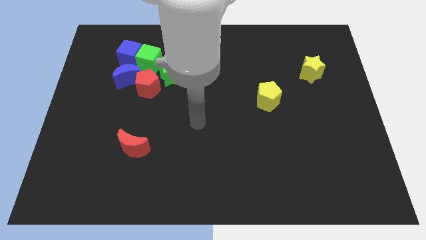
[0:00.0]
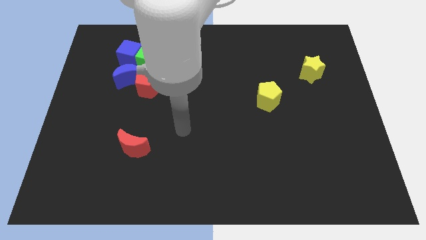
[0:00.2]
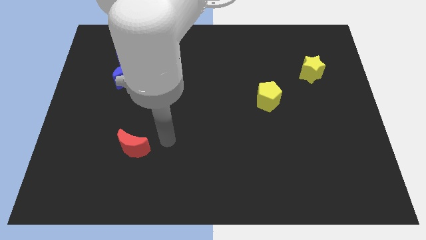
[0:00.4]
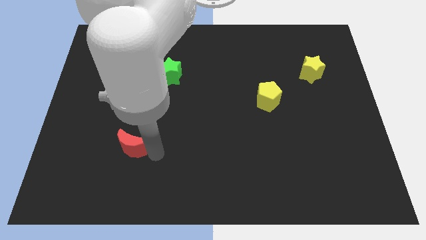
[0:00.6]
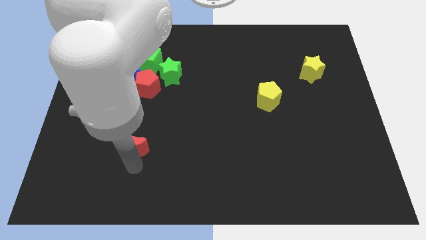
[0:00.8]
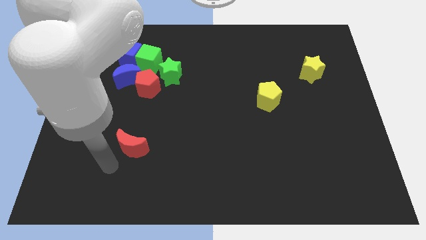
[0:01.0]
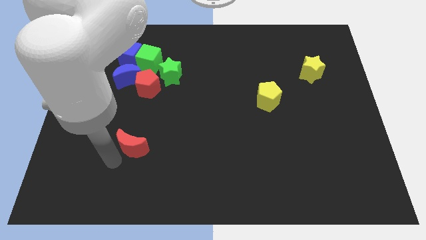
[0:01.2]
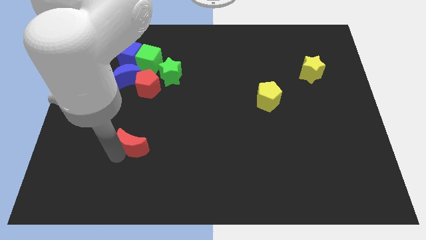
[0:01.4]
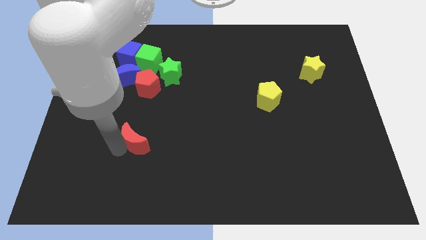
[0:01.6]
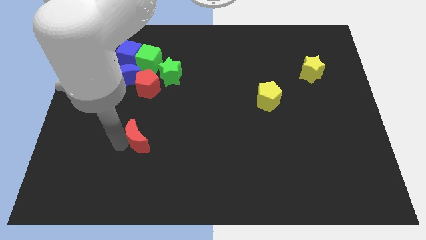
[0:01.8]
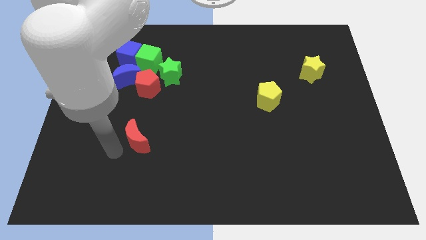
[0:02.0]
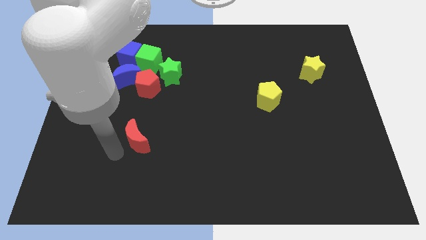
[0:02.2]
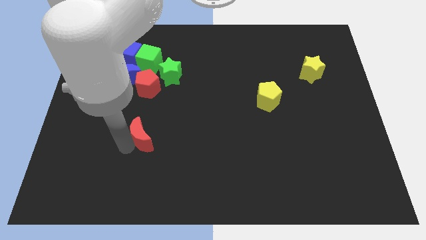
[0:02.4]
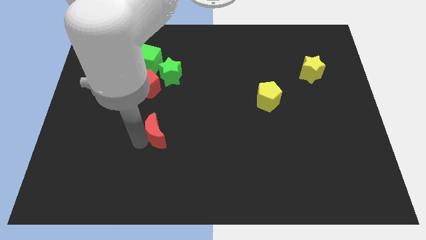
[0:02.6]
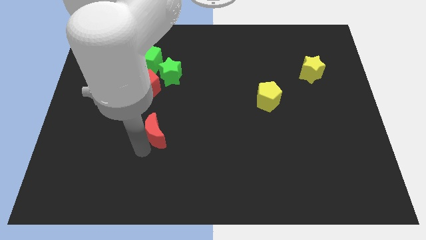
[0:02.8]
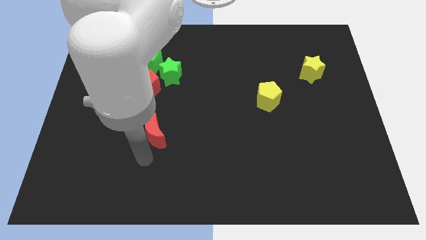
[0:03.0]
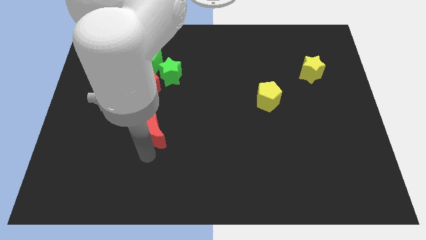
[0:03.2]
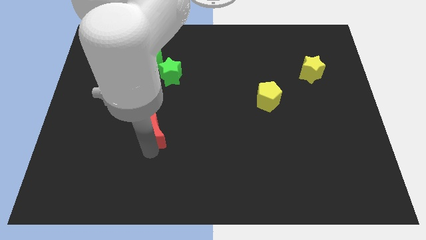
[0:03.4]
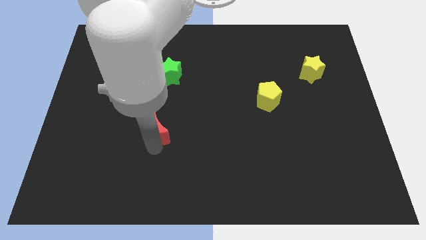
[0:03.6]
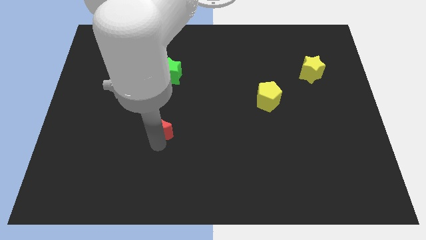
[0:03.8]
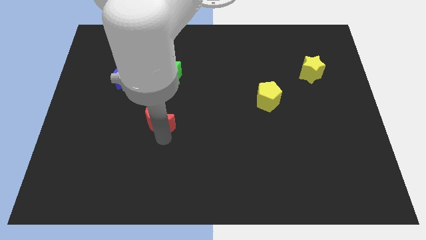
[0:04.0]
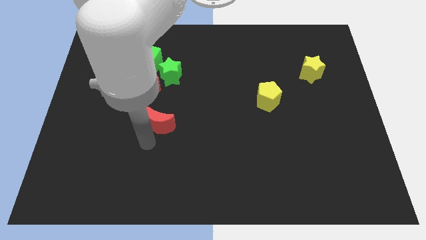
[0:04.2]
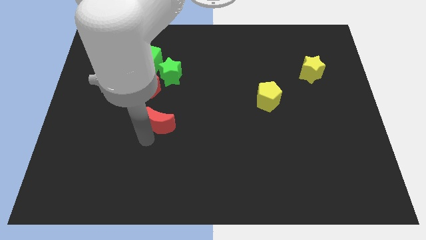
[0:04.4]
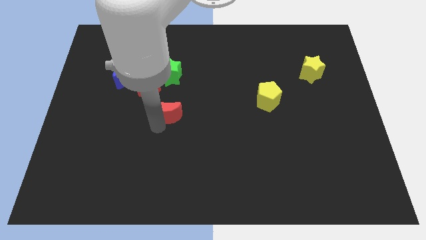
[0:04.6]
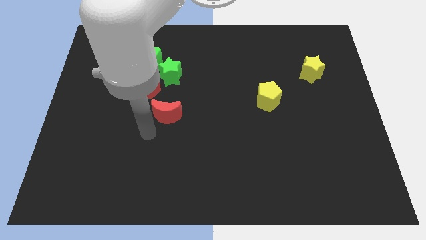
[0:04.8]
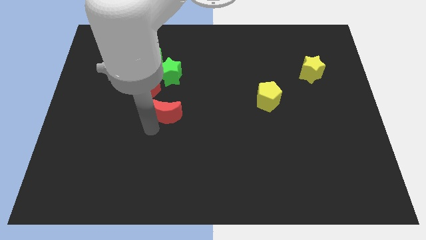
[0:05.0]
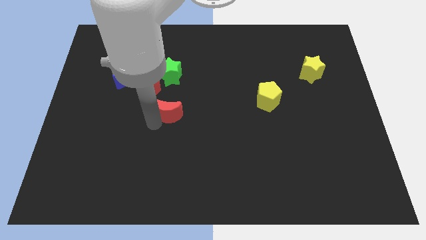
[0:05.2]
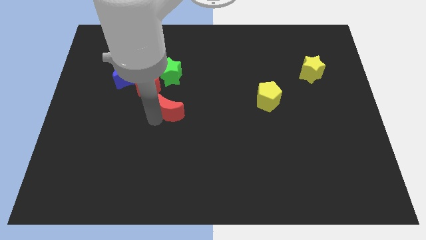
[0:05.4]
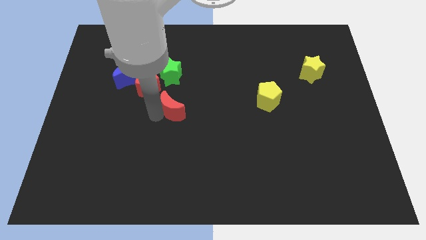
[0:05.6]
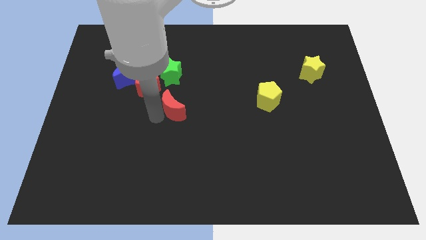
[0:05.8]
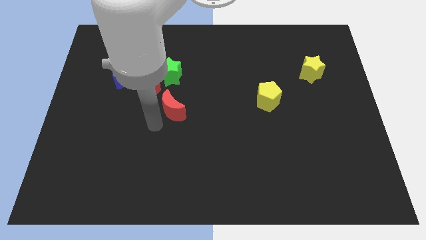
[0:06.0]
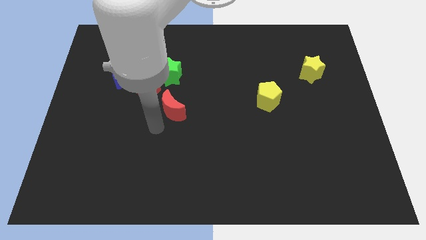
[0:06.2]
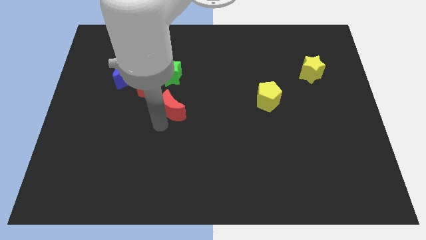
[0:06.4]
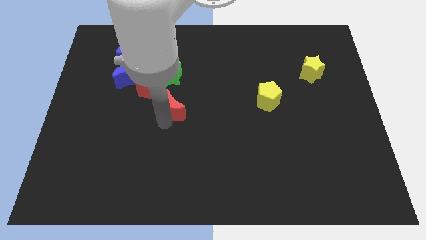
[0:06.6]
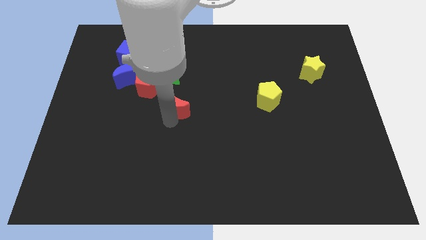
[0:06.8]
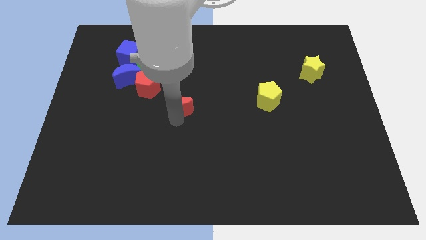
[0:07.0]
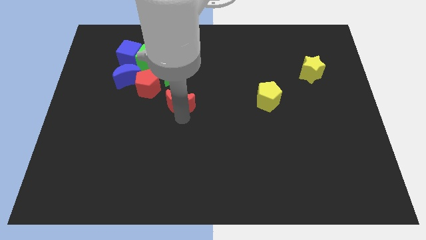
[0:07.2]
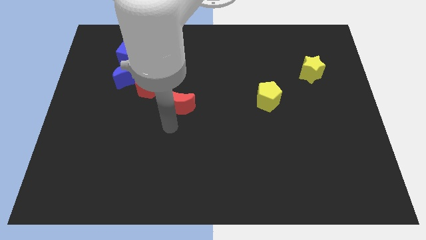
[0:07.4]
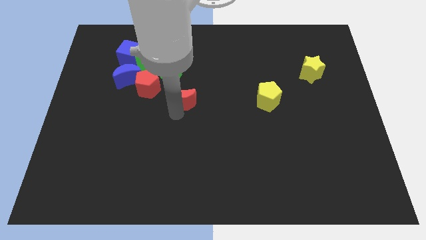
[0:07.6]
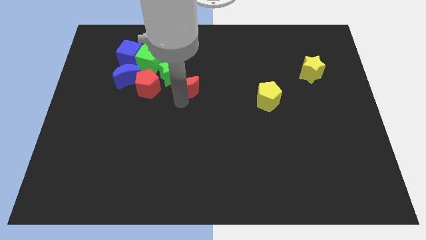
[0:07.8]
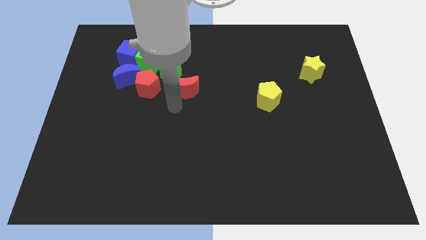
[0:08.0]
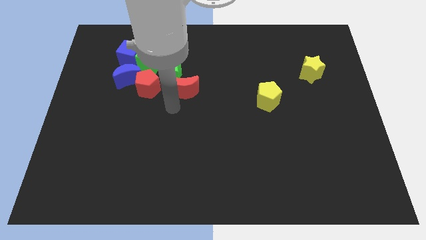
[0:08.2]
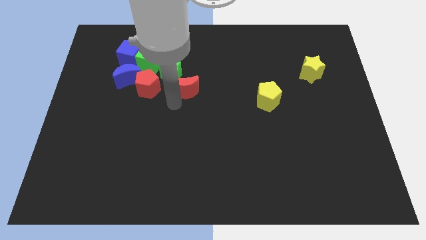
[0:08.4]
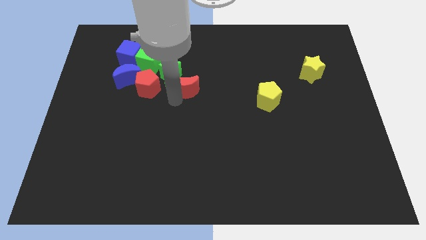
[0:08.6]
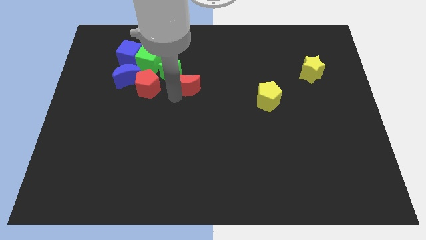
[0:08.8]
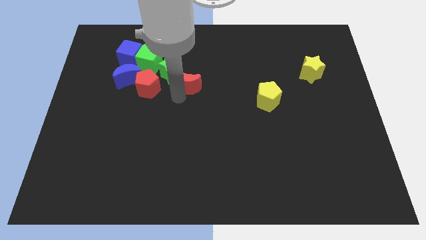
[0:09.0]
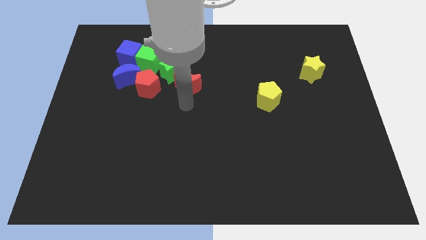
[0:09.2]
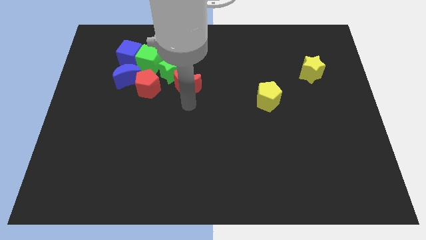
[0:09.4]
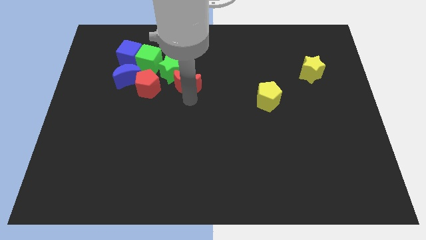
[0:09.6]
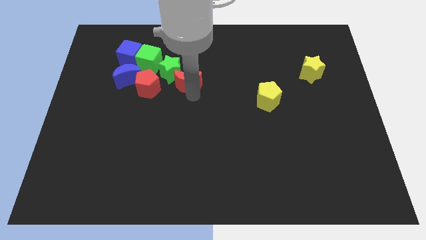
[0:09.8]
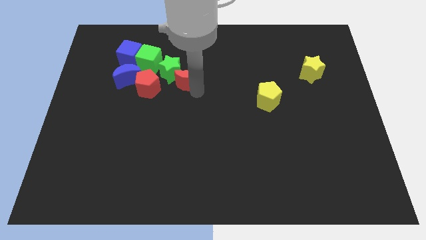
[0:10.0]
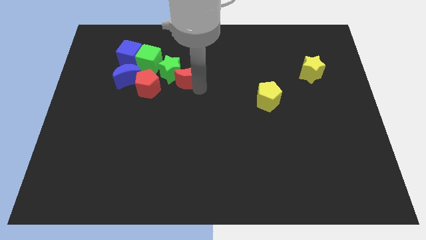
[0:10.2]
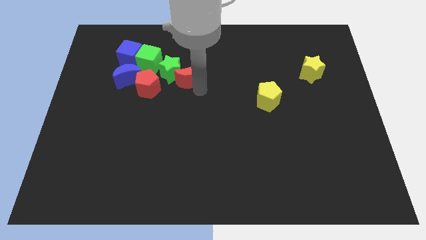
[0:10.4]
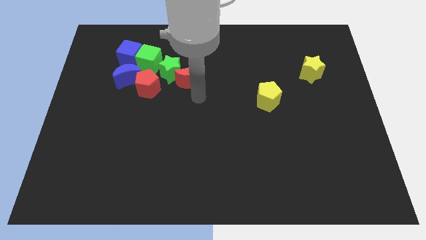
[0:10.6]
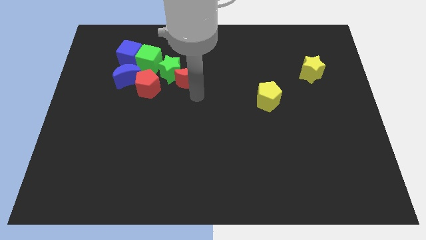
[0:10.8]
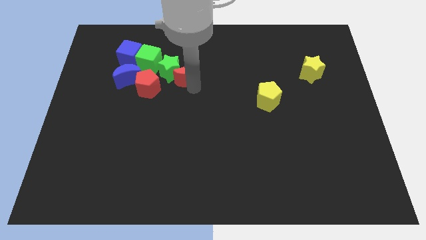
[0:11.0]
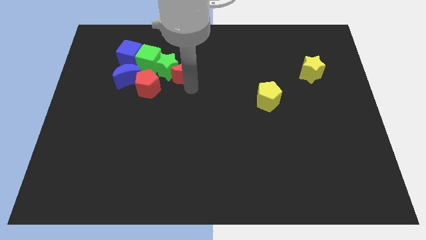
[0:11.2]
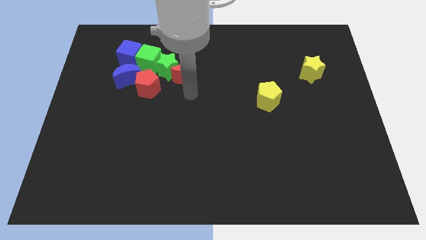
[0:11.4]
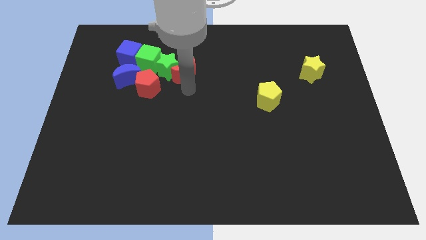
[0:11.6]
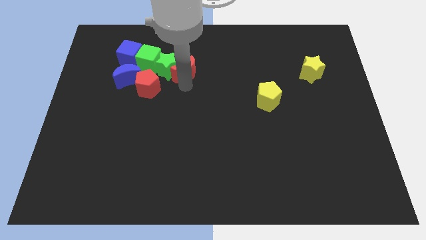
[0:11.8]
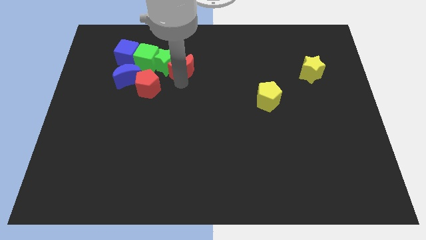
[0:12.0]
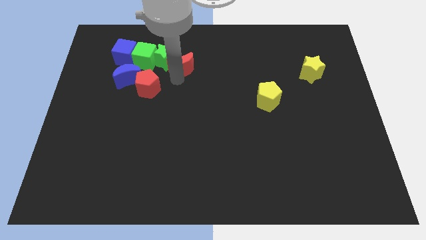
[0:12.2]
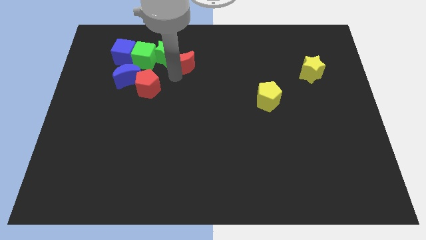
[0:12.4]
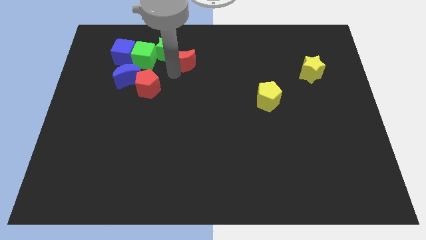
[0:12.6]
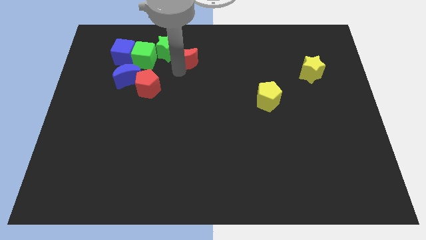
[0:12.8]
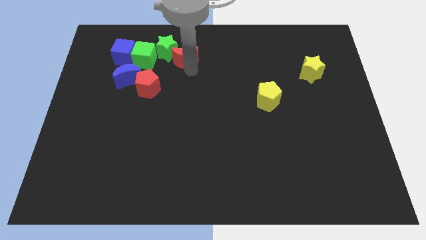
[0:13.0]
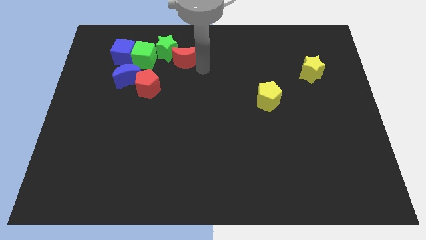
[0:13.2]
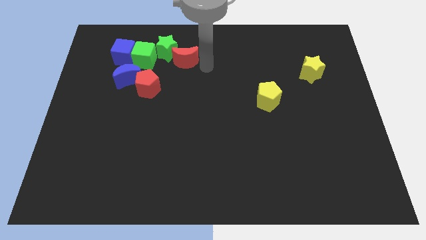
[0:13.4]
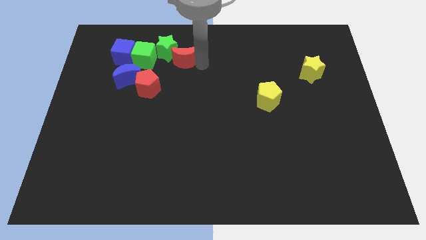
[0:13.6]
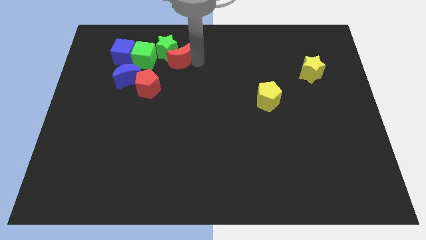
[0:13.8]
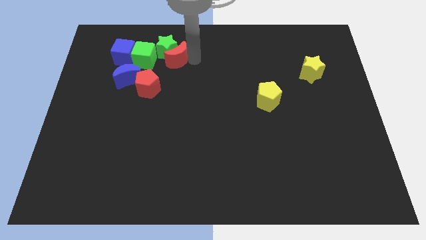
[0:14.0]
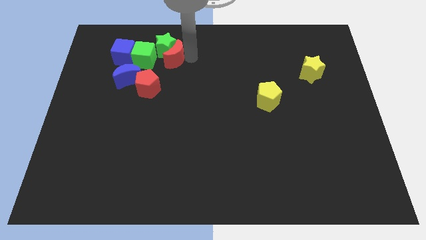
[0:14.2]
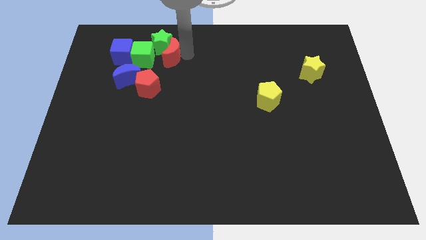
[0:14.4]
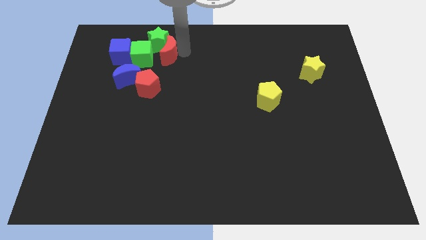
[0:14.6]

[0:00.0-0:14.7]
put the red moon above the red pentagon
